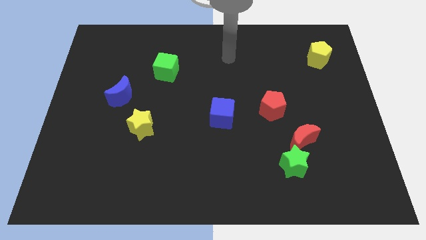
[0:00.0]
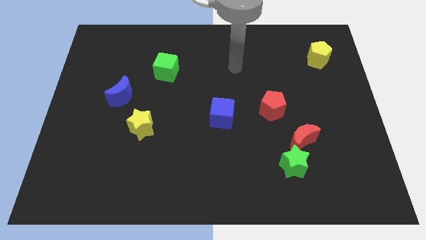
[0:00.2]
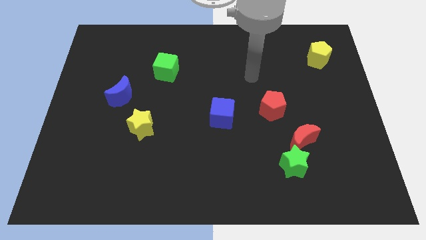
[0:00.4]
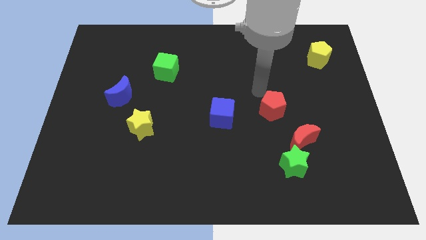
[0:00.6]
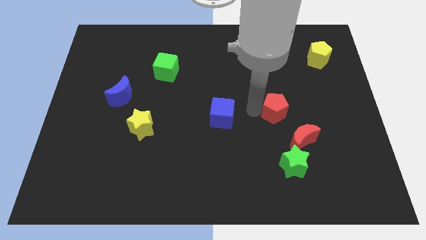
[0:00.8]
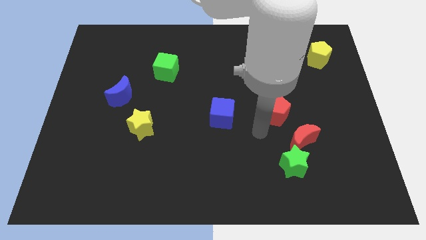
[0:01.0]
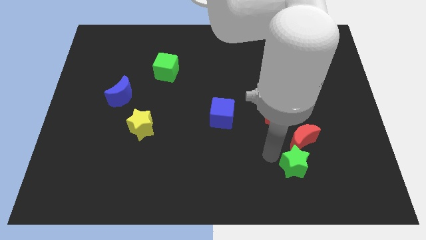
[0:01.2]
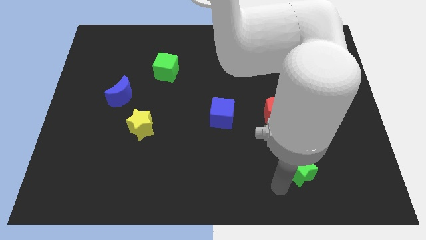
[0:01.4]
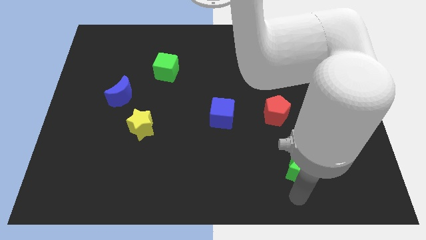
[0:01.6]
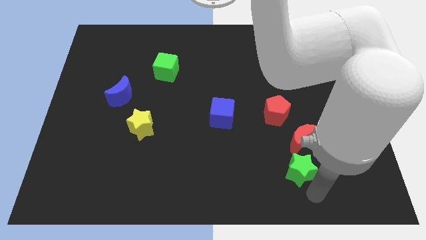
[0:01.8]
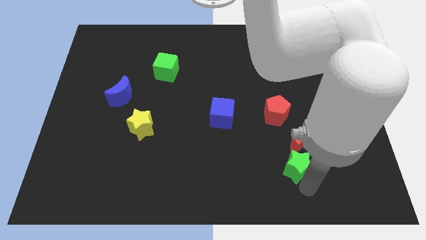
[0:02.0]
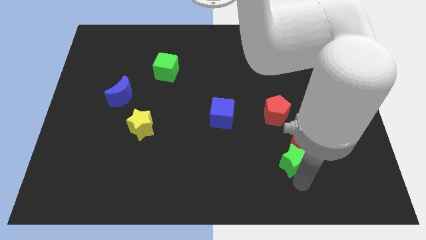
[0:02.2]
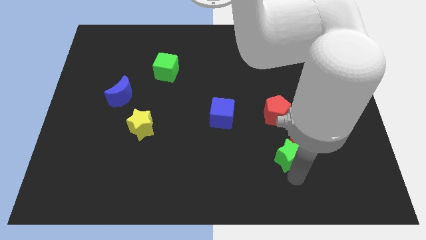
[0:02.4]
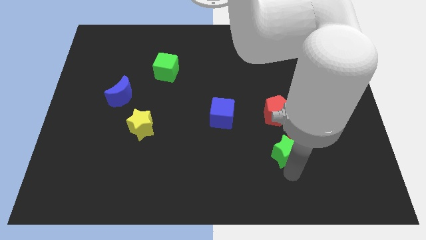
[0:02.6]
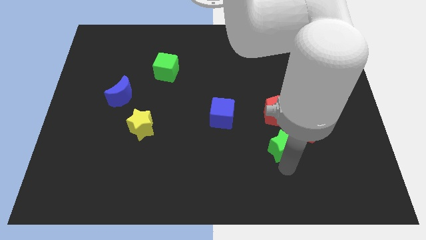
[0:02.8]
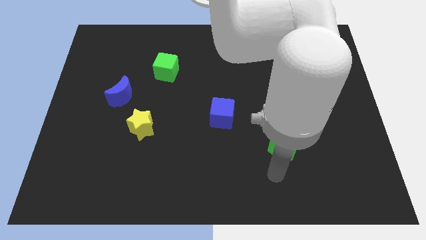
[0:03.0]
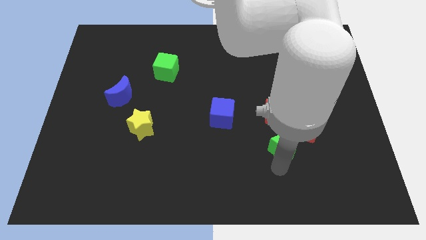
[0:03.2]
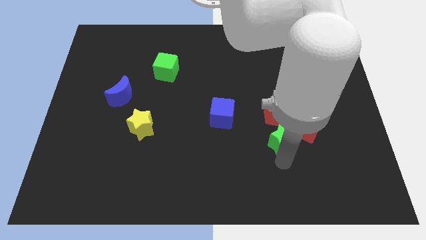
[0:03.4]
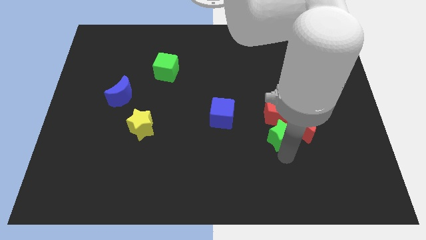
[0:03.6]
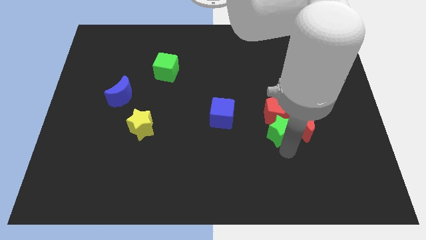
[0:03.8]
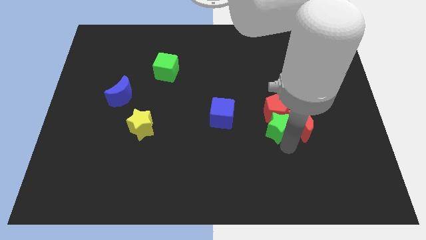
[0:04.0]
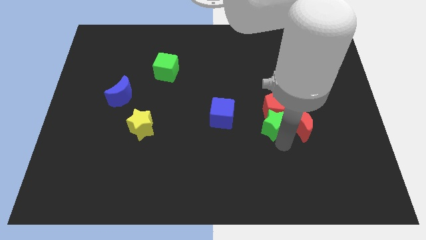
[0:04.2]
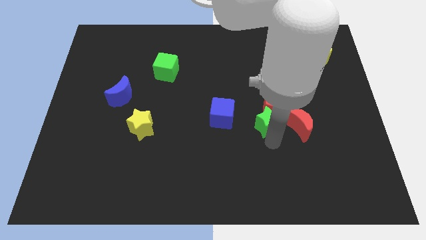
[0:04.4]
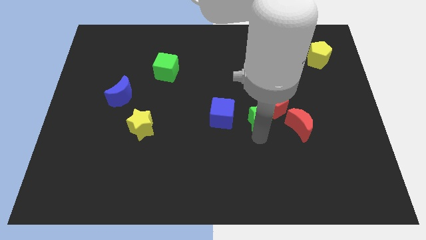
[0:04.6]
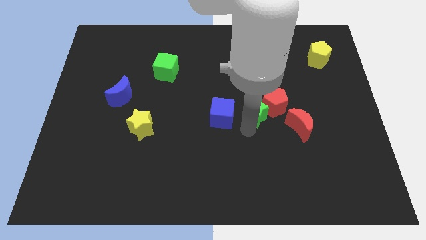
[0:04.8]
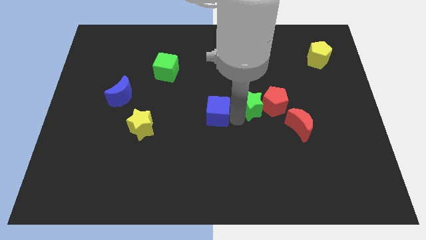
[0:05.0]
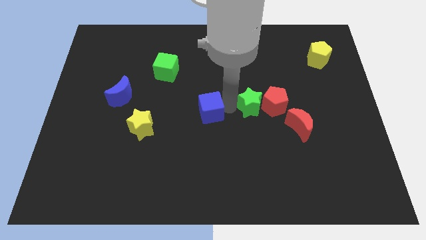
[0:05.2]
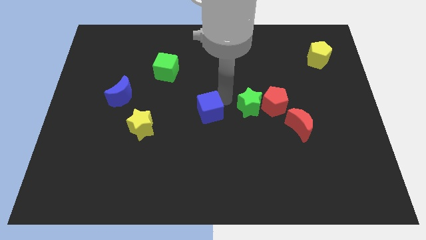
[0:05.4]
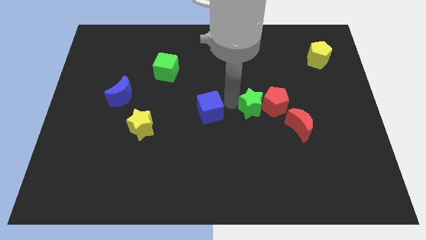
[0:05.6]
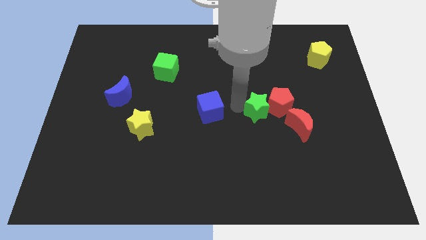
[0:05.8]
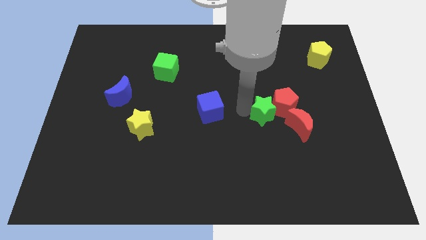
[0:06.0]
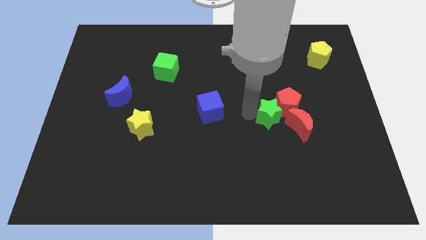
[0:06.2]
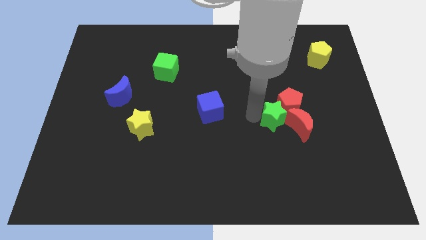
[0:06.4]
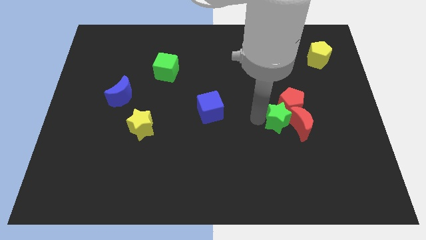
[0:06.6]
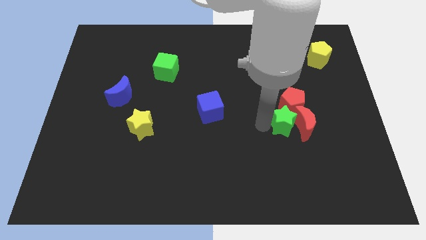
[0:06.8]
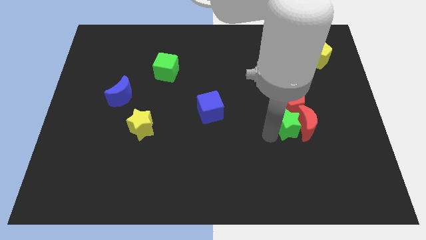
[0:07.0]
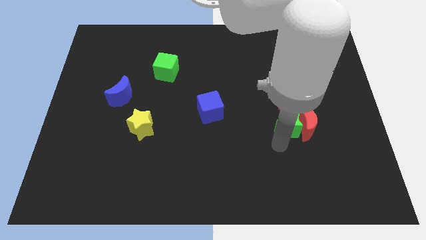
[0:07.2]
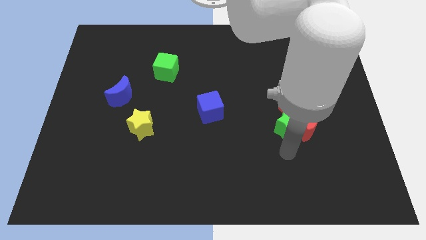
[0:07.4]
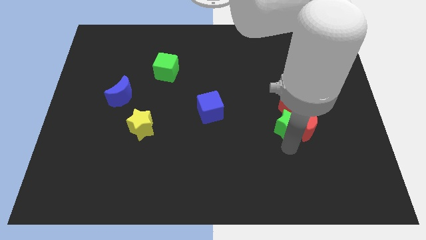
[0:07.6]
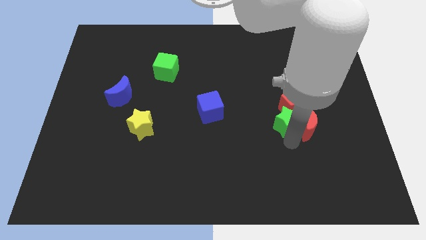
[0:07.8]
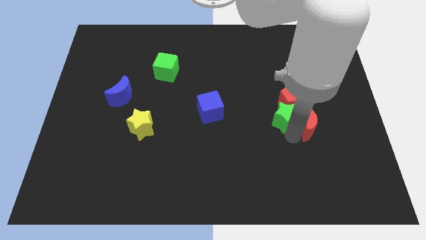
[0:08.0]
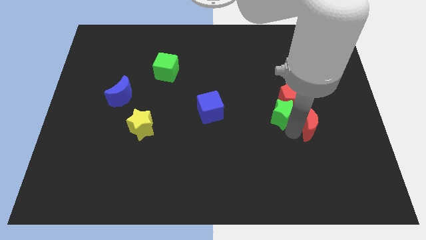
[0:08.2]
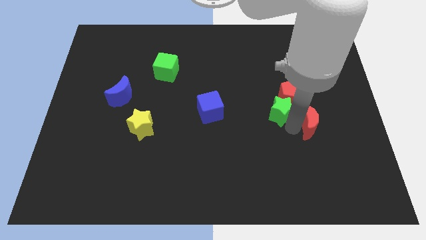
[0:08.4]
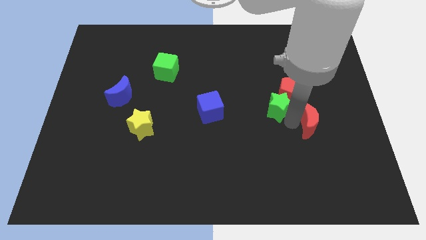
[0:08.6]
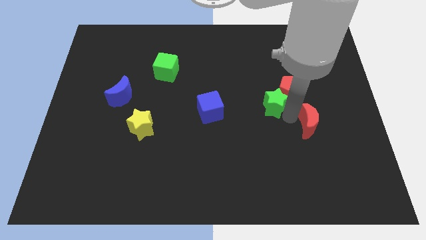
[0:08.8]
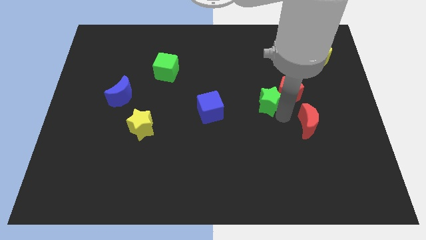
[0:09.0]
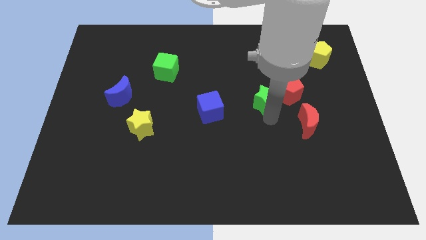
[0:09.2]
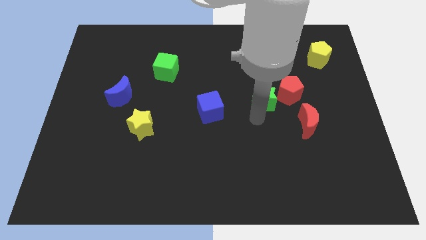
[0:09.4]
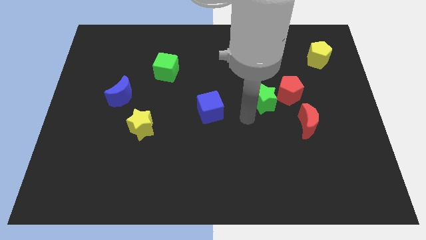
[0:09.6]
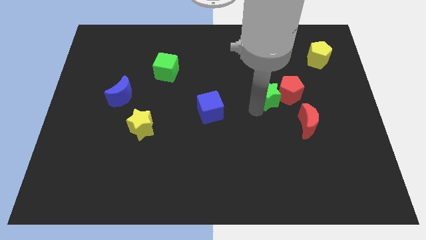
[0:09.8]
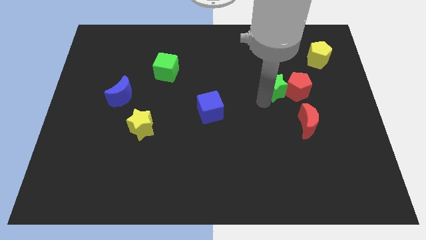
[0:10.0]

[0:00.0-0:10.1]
slide the green star up

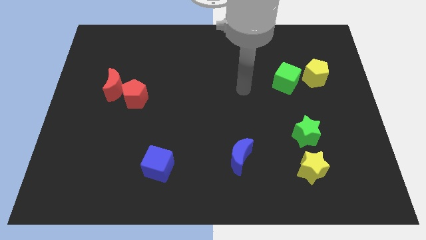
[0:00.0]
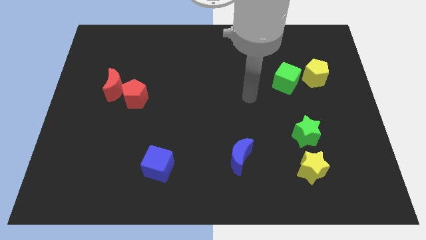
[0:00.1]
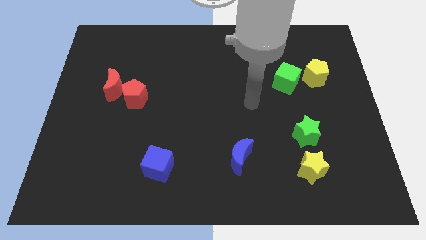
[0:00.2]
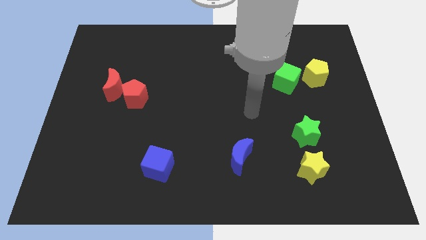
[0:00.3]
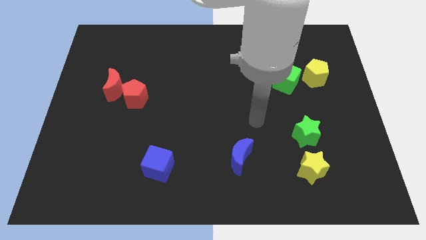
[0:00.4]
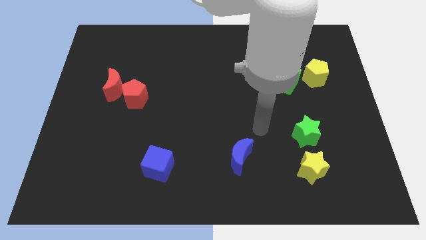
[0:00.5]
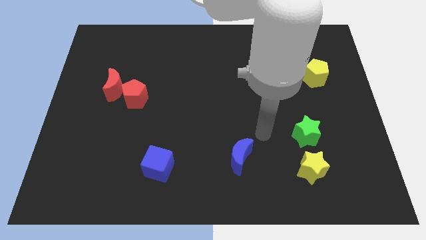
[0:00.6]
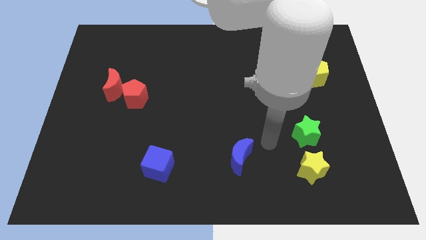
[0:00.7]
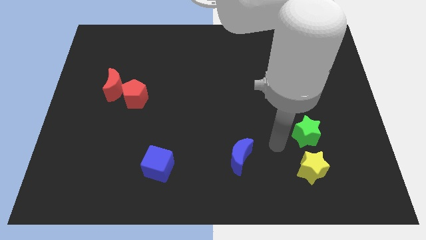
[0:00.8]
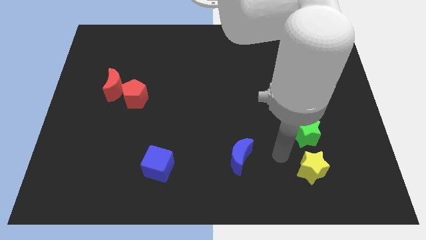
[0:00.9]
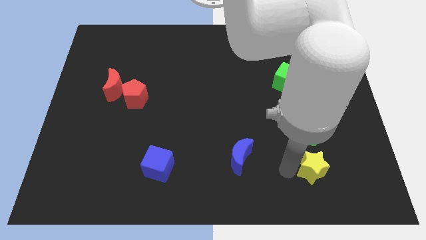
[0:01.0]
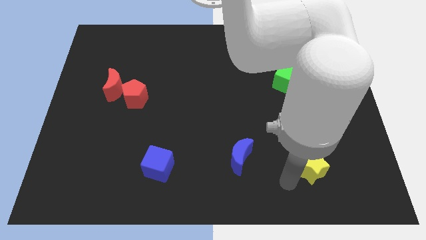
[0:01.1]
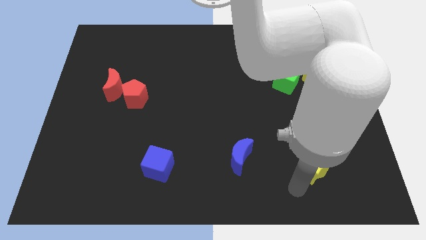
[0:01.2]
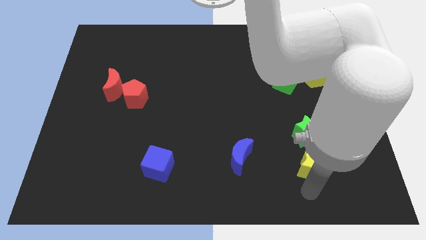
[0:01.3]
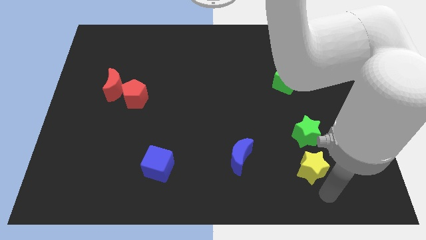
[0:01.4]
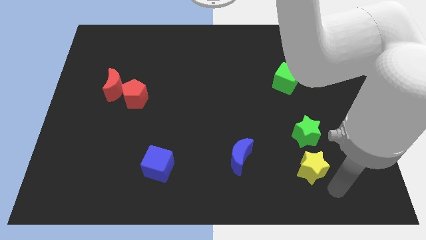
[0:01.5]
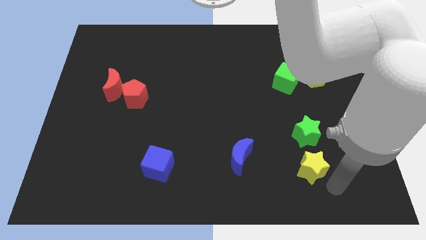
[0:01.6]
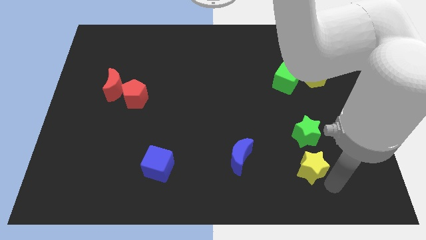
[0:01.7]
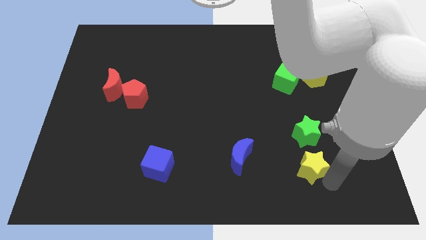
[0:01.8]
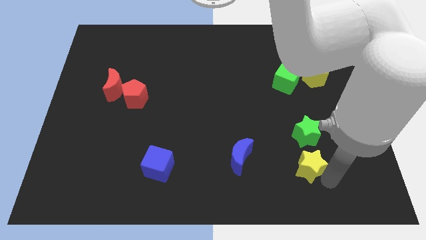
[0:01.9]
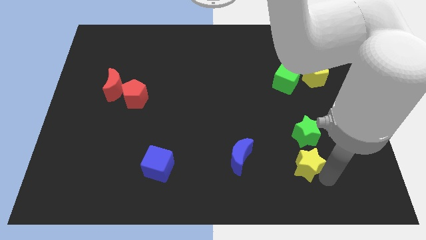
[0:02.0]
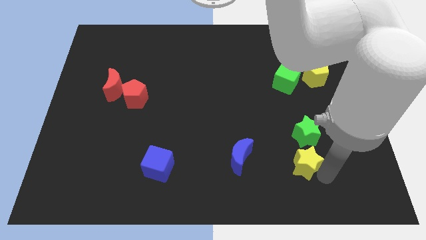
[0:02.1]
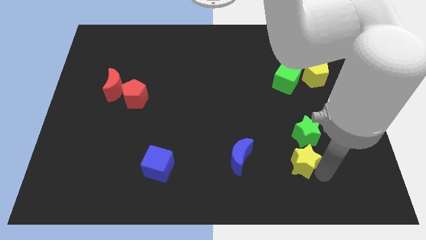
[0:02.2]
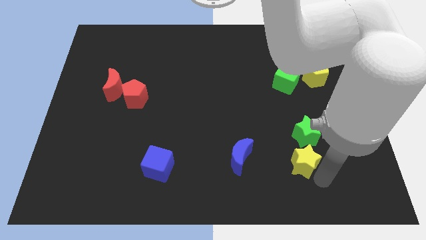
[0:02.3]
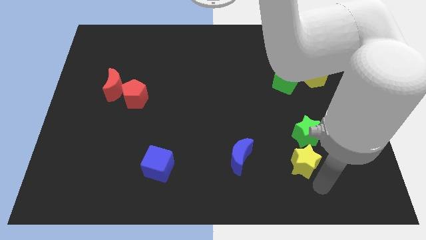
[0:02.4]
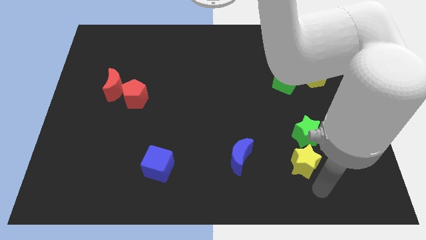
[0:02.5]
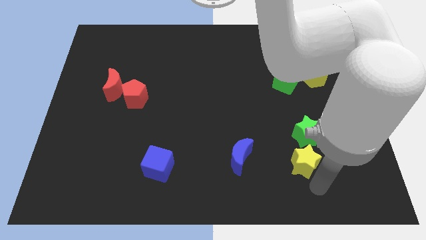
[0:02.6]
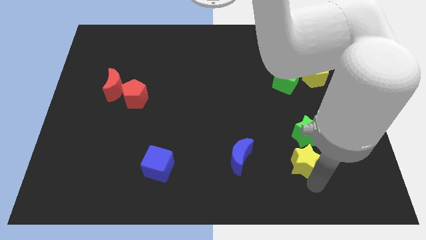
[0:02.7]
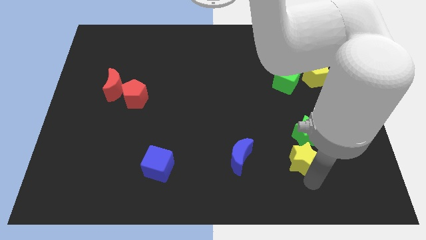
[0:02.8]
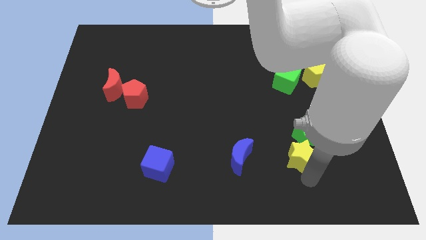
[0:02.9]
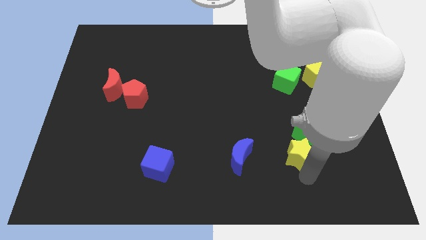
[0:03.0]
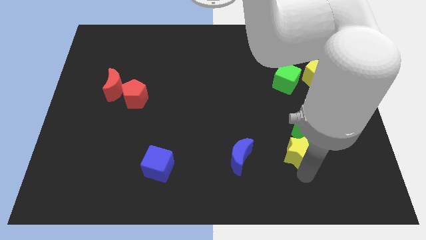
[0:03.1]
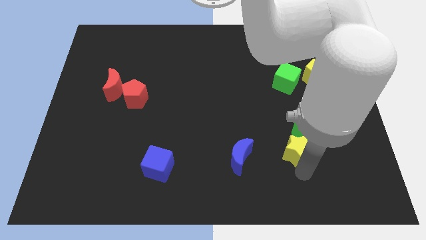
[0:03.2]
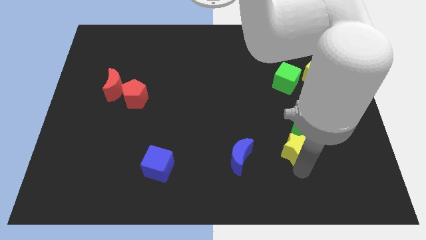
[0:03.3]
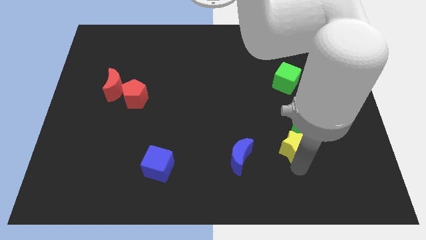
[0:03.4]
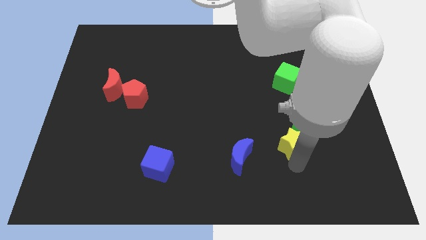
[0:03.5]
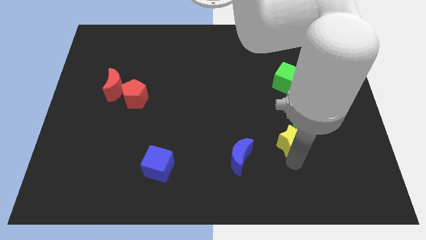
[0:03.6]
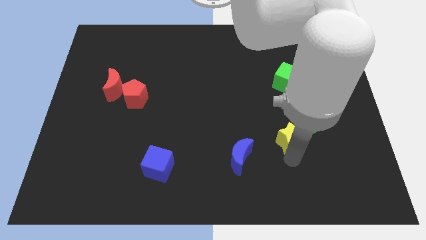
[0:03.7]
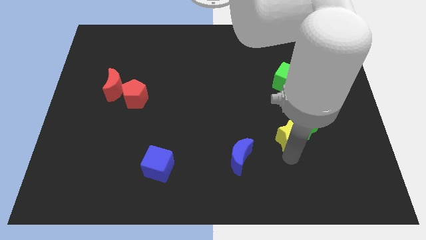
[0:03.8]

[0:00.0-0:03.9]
move the yellow star upwards a bit
